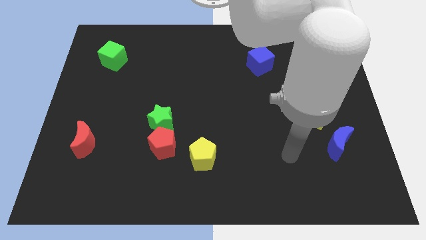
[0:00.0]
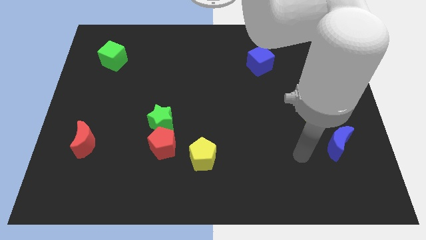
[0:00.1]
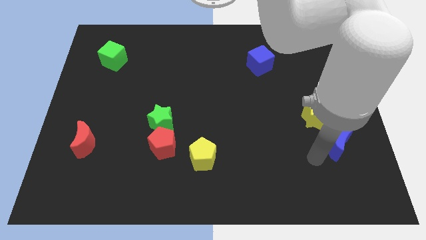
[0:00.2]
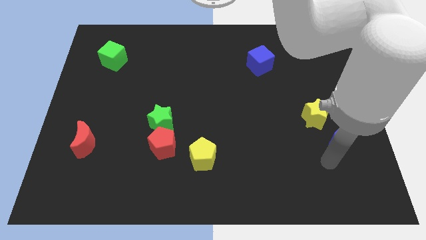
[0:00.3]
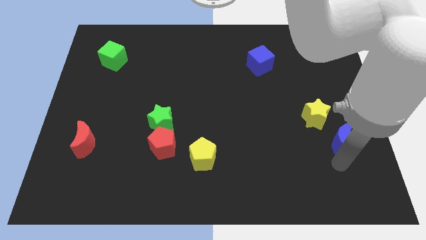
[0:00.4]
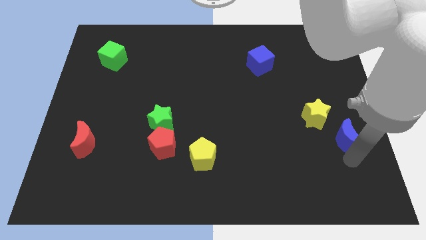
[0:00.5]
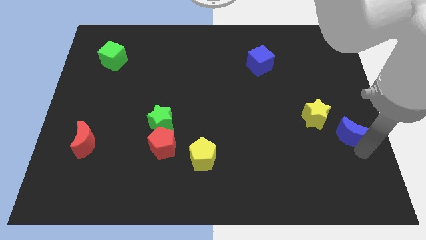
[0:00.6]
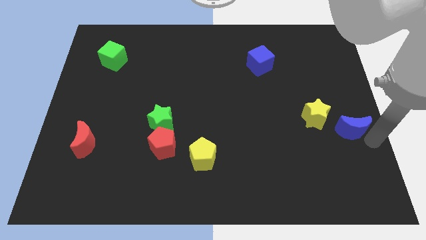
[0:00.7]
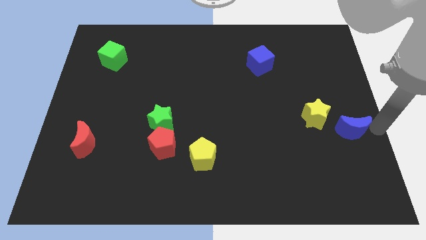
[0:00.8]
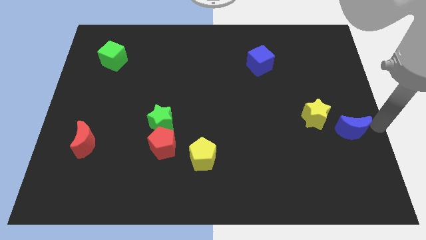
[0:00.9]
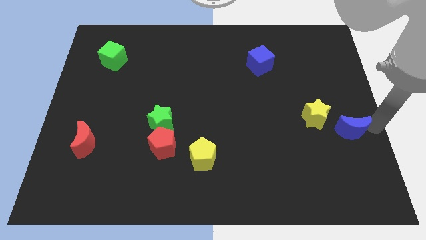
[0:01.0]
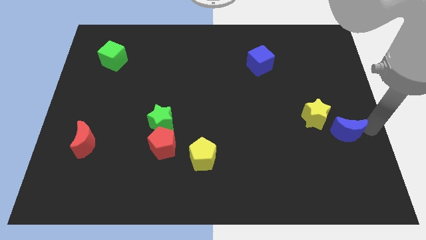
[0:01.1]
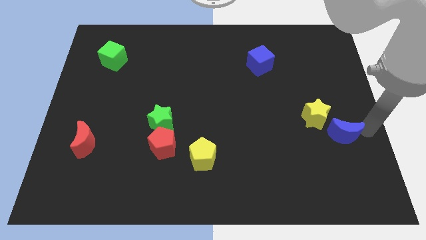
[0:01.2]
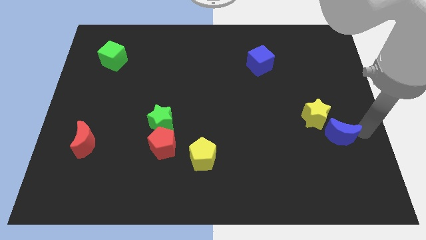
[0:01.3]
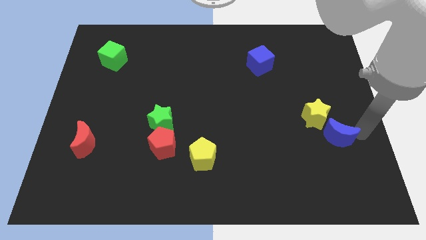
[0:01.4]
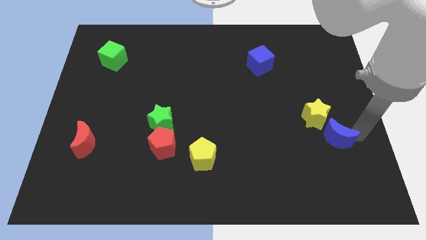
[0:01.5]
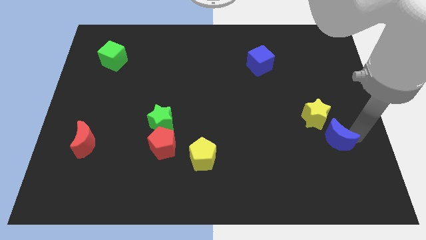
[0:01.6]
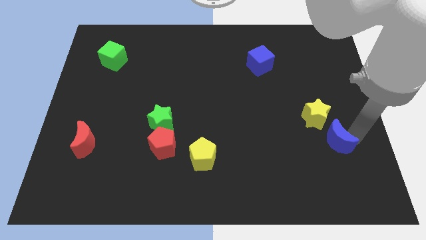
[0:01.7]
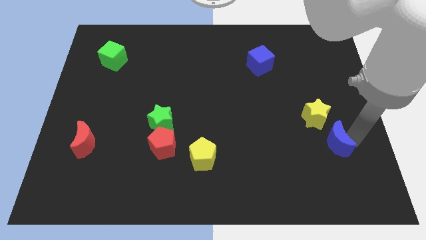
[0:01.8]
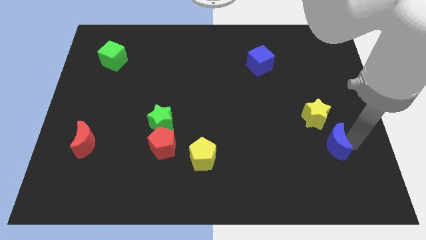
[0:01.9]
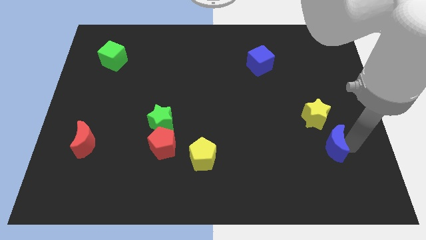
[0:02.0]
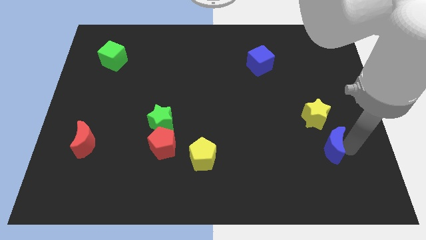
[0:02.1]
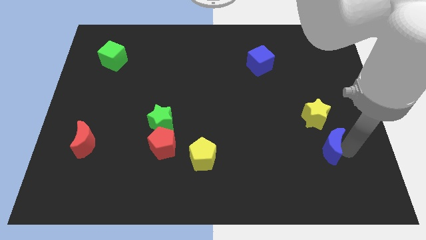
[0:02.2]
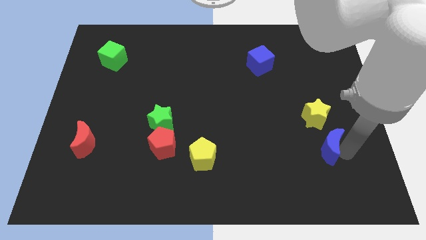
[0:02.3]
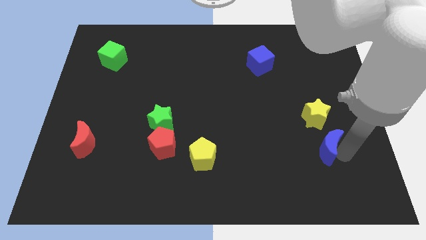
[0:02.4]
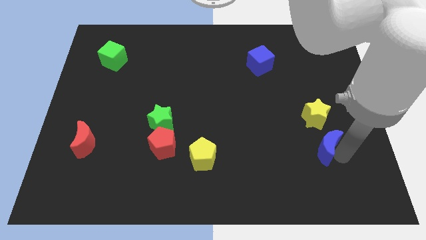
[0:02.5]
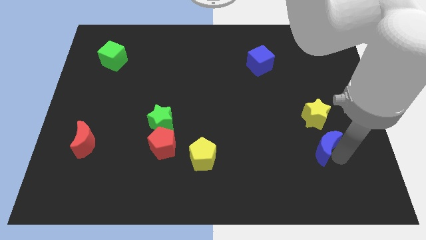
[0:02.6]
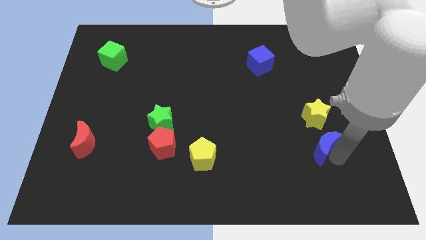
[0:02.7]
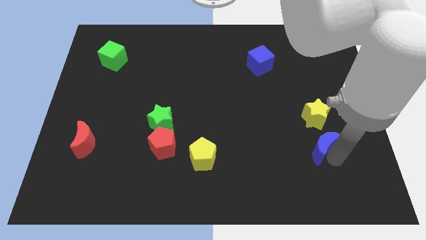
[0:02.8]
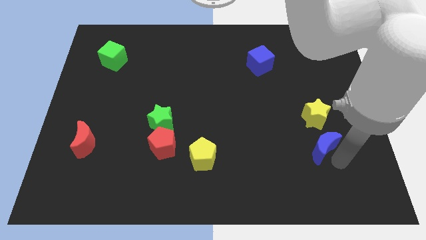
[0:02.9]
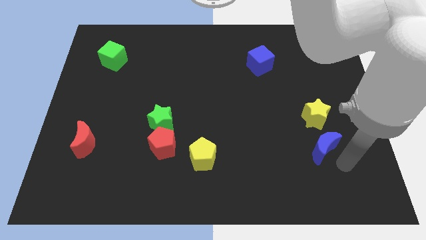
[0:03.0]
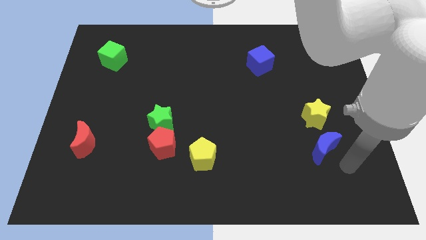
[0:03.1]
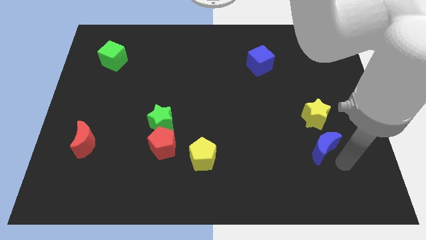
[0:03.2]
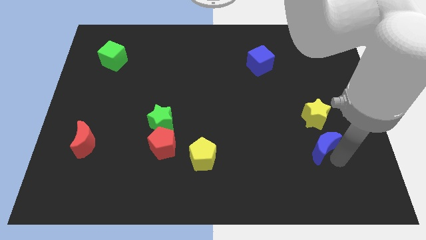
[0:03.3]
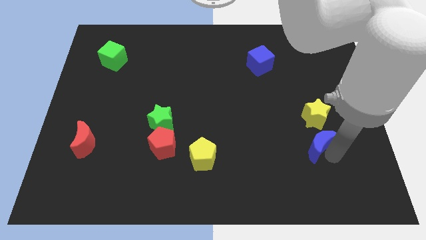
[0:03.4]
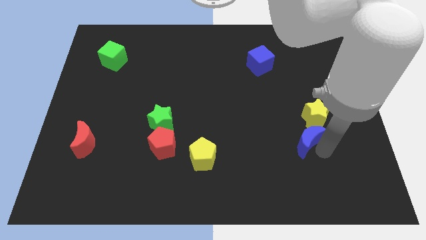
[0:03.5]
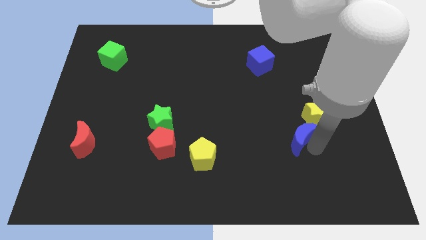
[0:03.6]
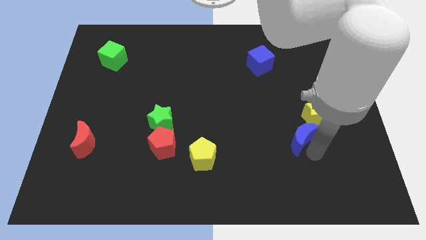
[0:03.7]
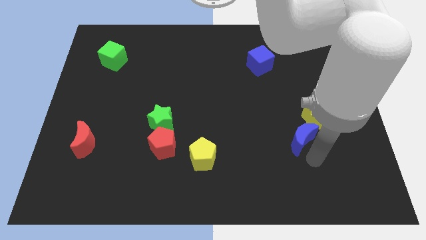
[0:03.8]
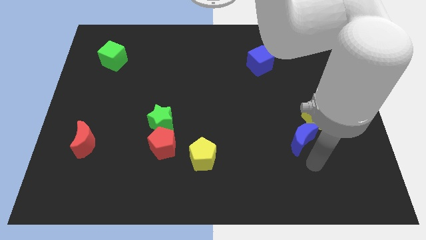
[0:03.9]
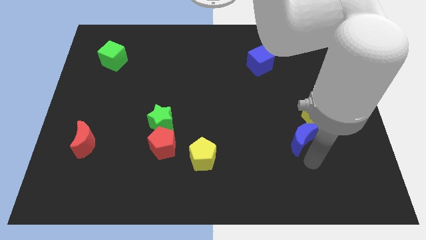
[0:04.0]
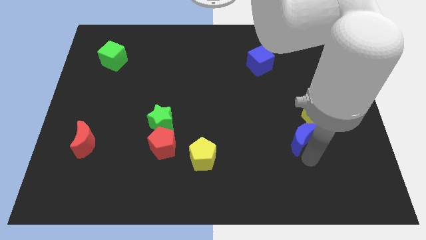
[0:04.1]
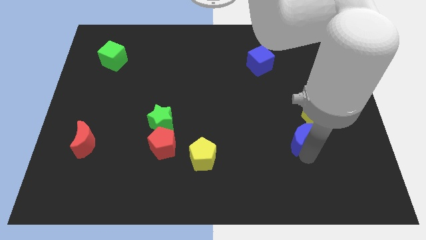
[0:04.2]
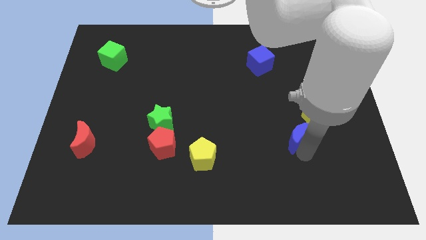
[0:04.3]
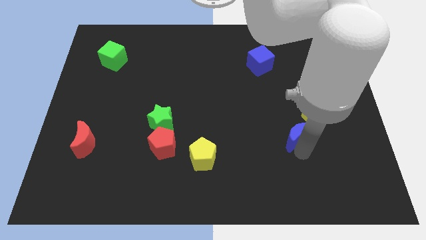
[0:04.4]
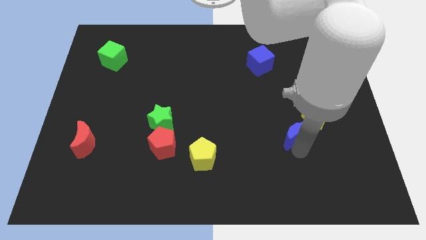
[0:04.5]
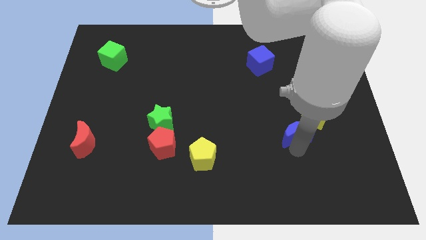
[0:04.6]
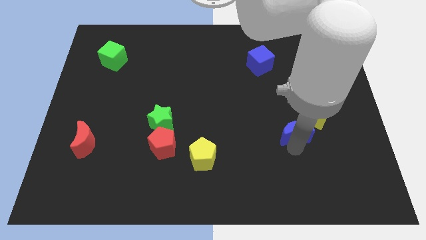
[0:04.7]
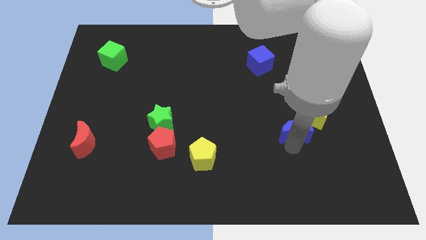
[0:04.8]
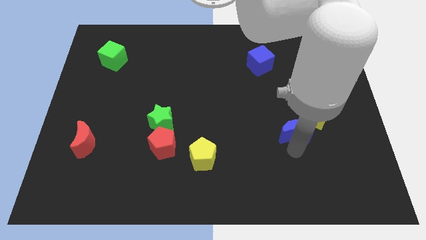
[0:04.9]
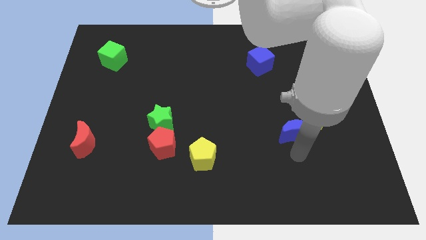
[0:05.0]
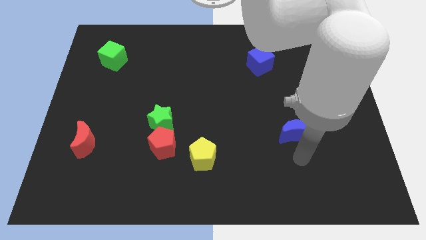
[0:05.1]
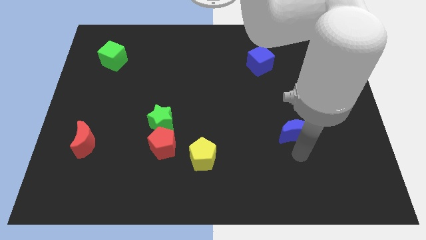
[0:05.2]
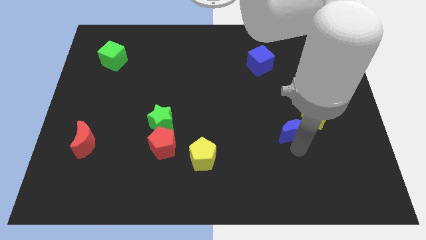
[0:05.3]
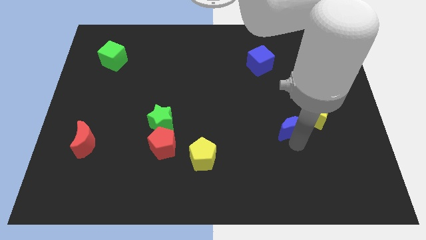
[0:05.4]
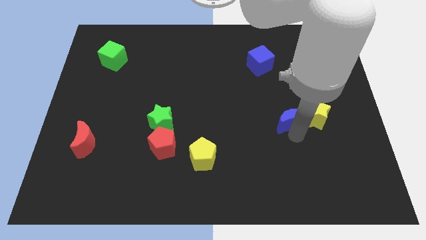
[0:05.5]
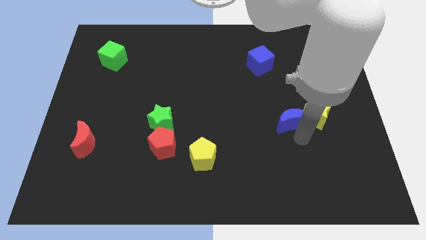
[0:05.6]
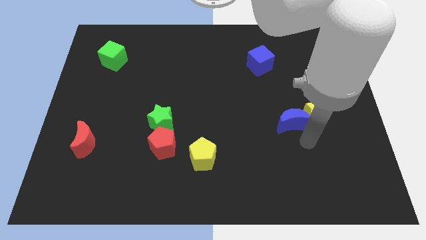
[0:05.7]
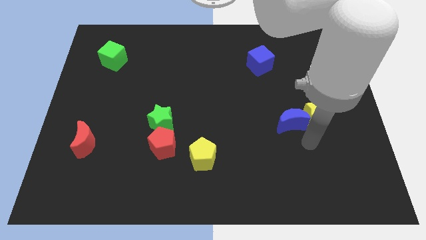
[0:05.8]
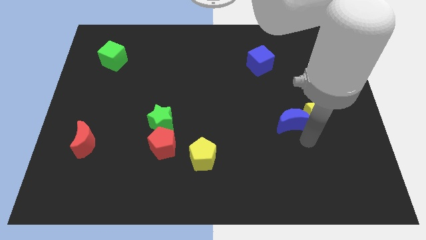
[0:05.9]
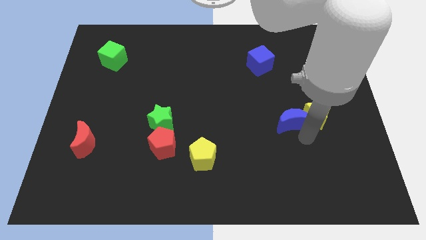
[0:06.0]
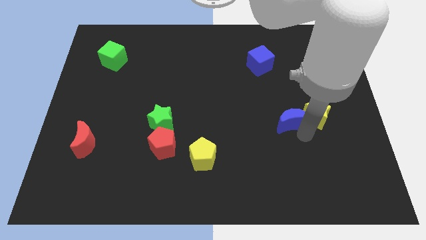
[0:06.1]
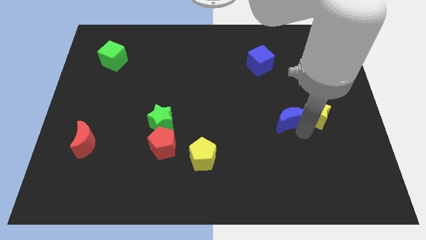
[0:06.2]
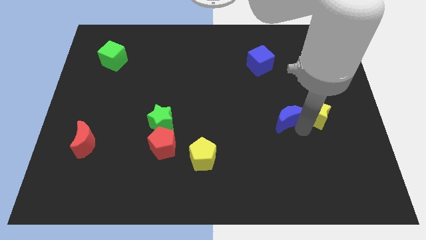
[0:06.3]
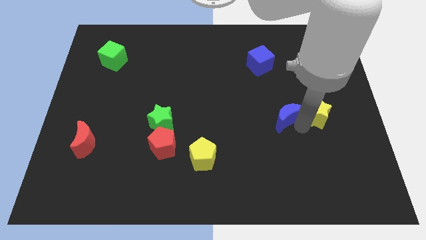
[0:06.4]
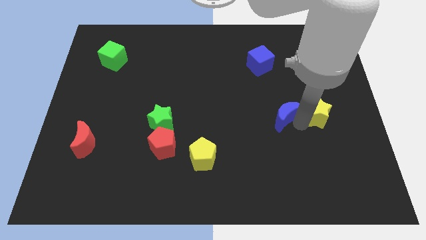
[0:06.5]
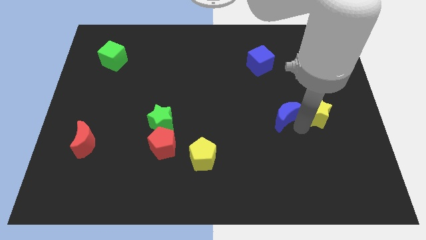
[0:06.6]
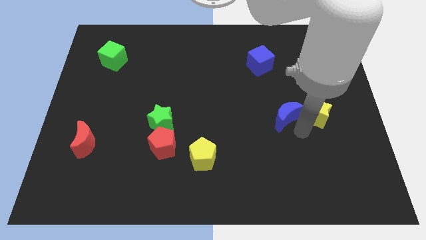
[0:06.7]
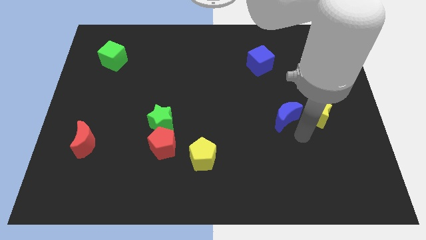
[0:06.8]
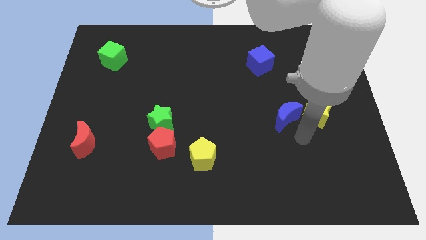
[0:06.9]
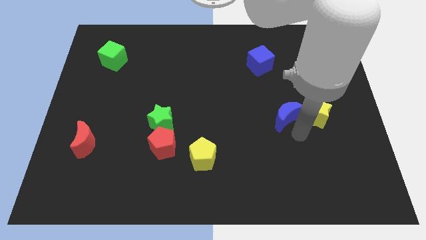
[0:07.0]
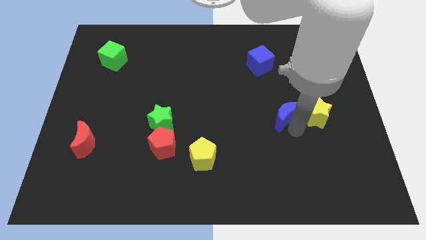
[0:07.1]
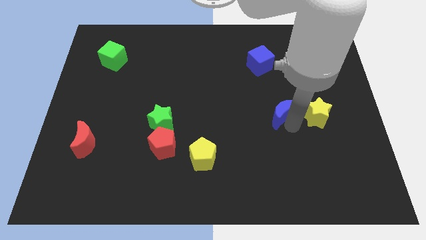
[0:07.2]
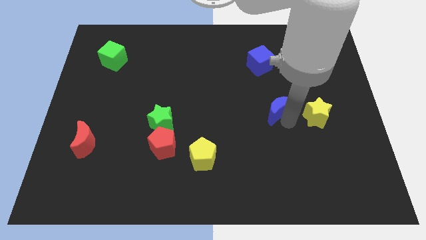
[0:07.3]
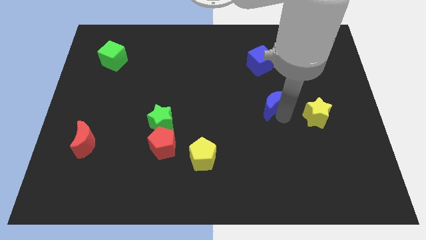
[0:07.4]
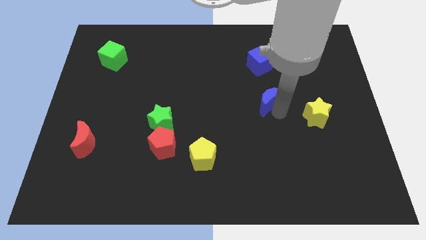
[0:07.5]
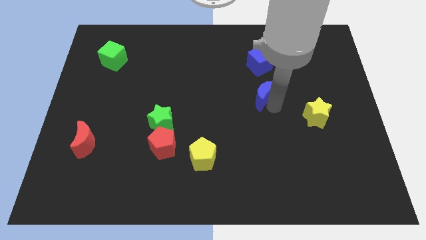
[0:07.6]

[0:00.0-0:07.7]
move the blue moon up and then left

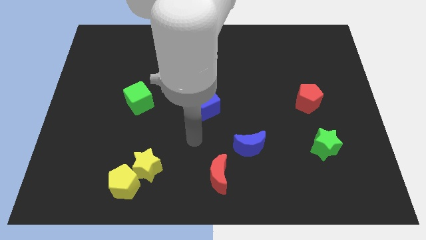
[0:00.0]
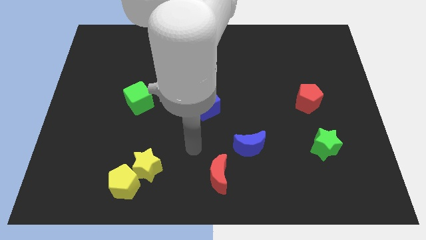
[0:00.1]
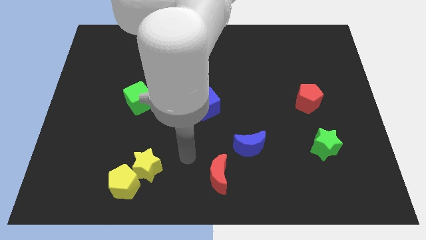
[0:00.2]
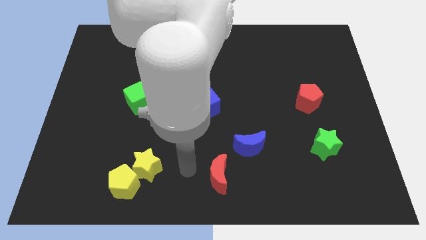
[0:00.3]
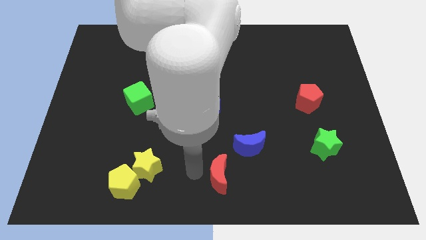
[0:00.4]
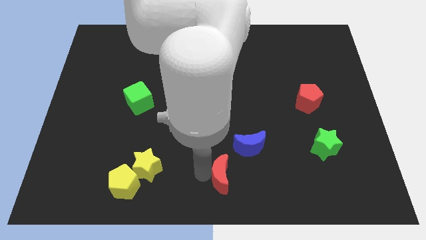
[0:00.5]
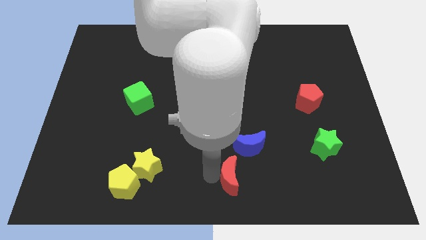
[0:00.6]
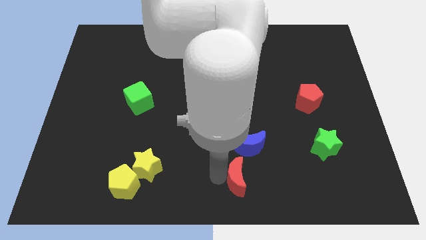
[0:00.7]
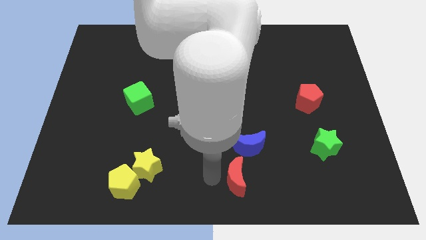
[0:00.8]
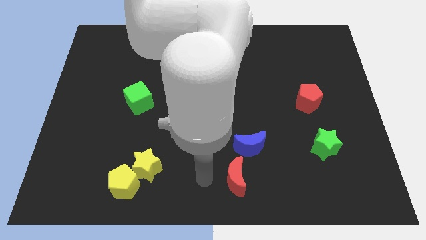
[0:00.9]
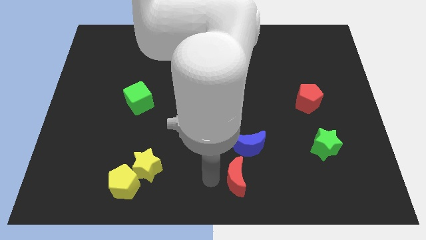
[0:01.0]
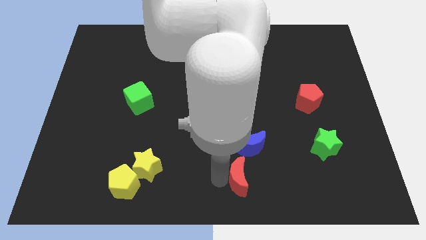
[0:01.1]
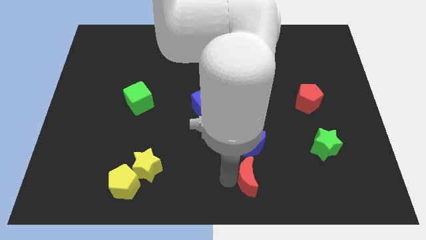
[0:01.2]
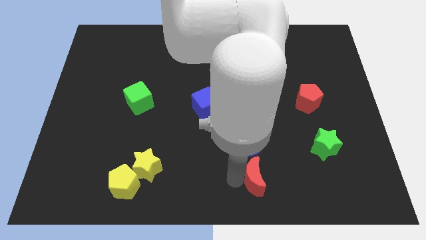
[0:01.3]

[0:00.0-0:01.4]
slide the red moon a little to the right
